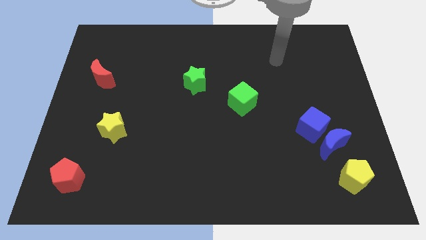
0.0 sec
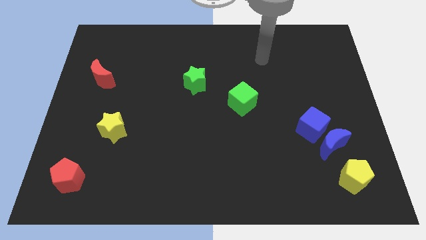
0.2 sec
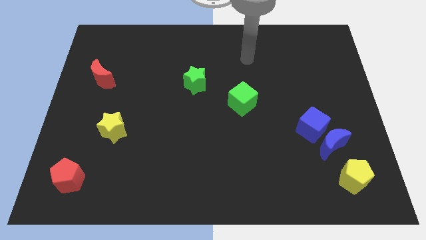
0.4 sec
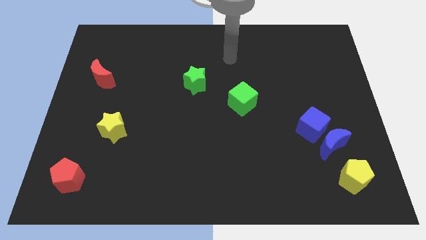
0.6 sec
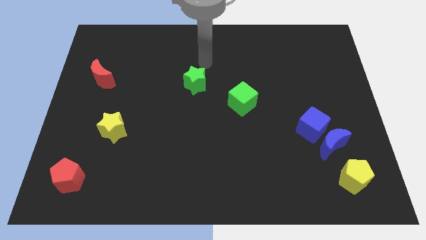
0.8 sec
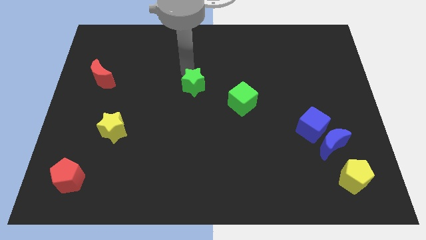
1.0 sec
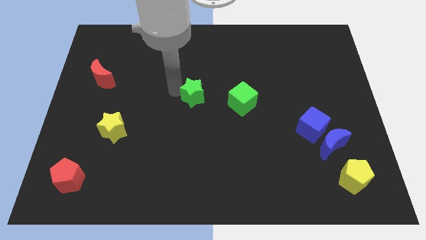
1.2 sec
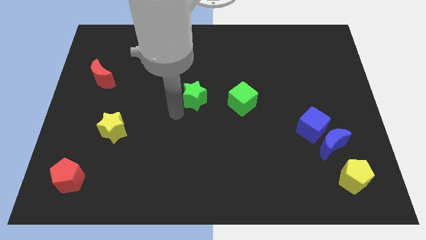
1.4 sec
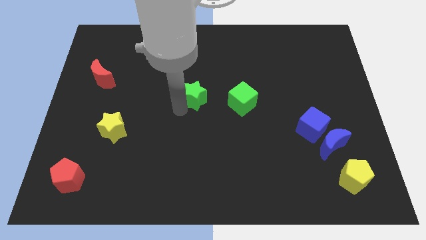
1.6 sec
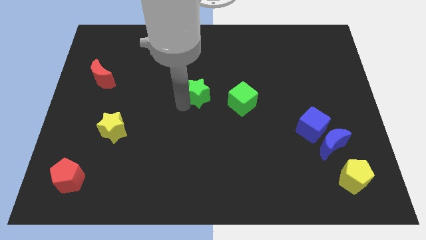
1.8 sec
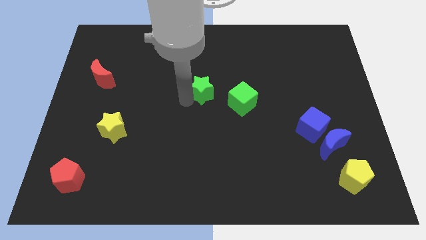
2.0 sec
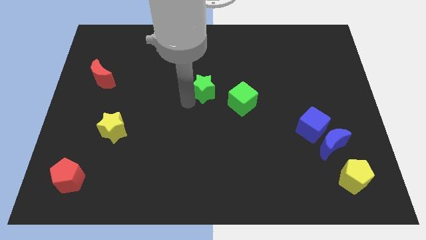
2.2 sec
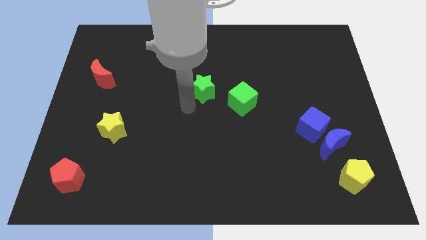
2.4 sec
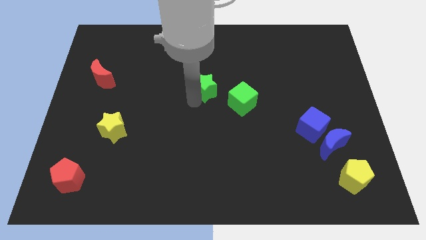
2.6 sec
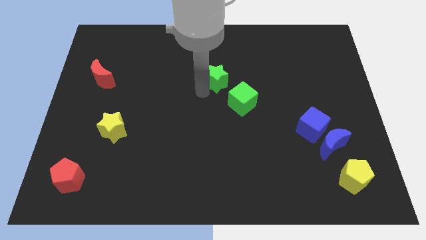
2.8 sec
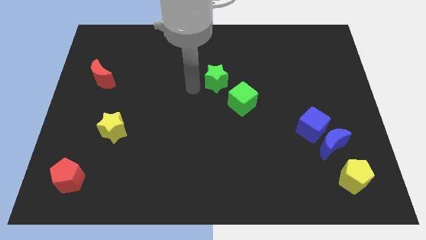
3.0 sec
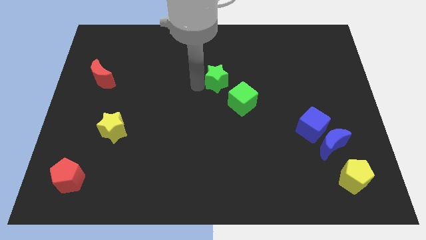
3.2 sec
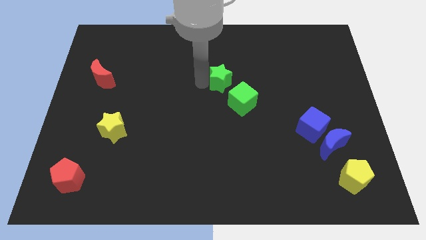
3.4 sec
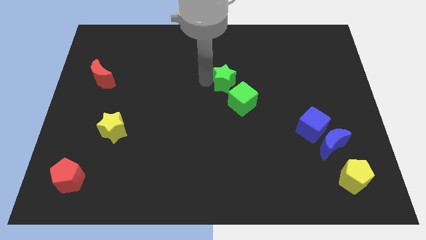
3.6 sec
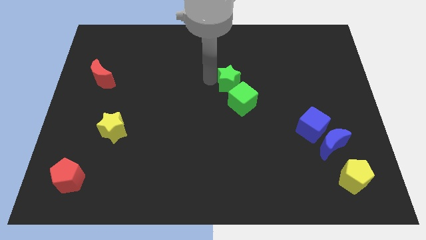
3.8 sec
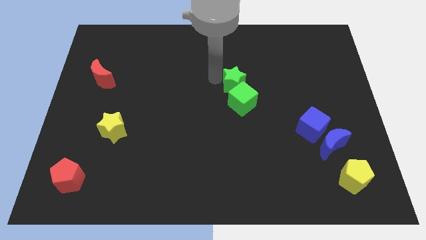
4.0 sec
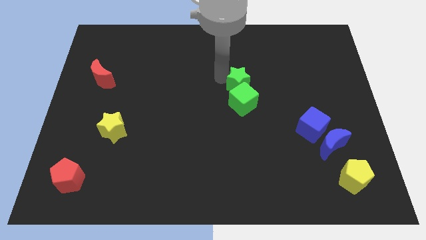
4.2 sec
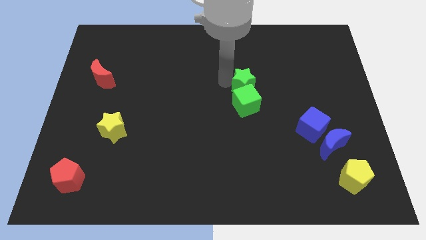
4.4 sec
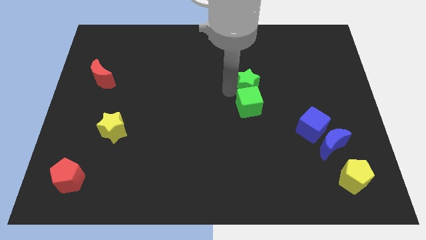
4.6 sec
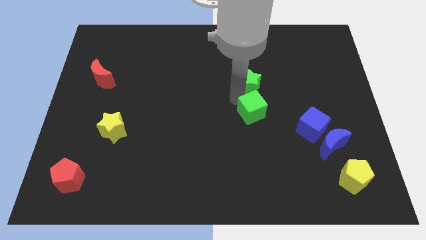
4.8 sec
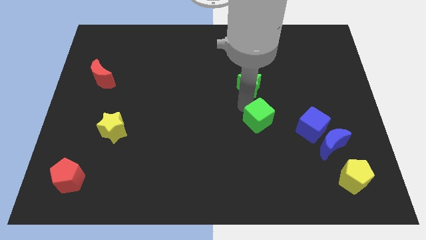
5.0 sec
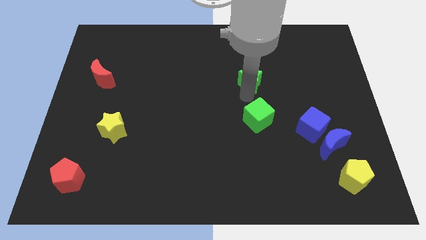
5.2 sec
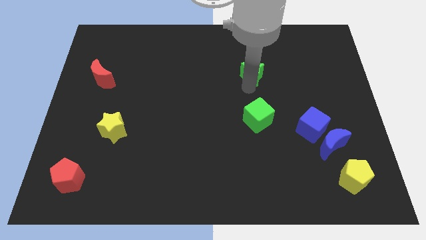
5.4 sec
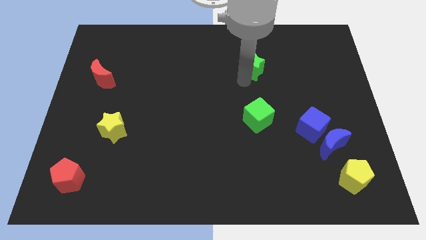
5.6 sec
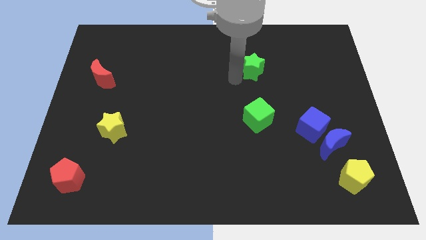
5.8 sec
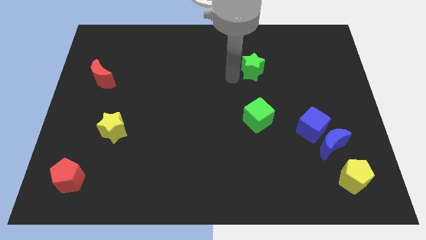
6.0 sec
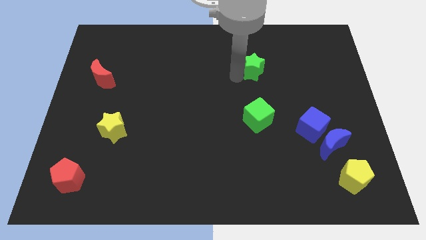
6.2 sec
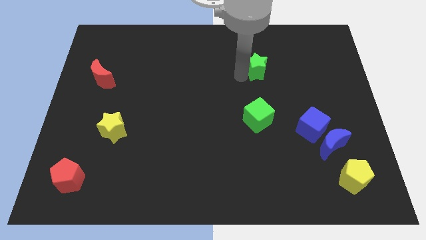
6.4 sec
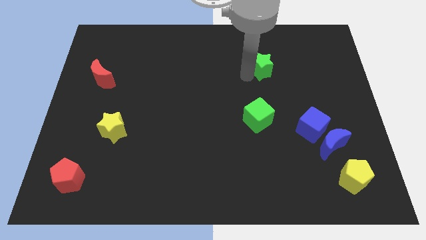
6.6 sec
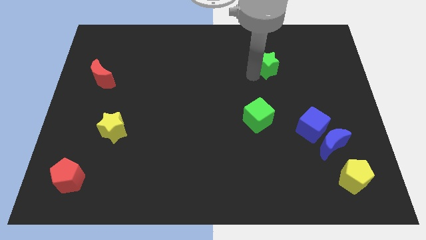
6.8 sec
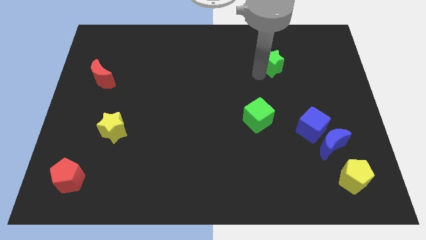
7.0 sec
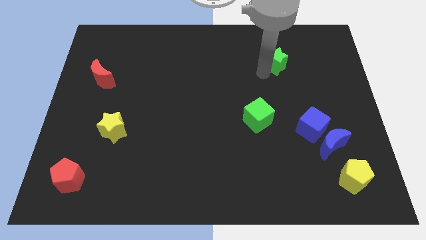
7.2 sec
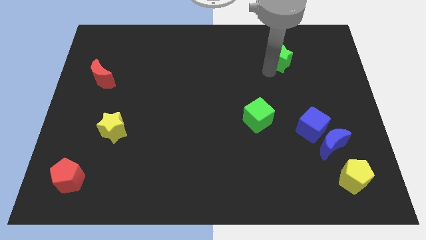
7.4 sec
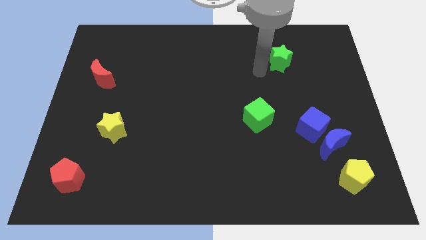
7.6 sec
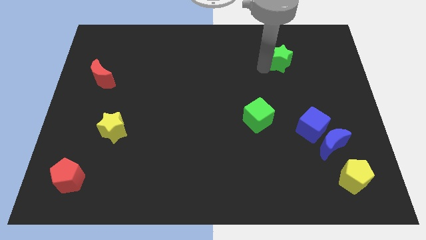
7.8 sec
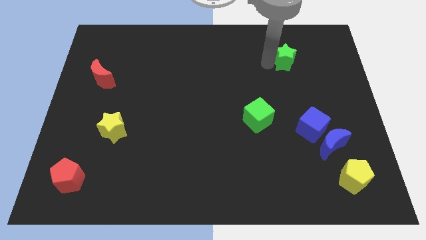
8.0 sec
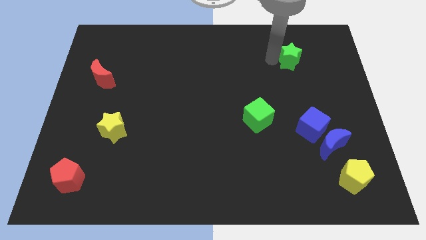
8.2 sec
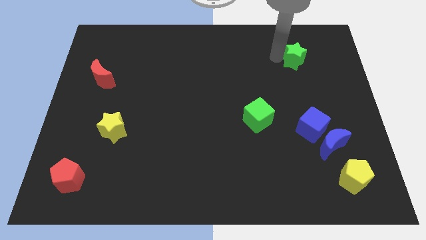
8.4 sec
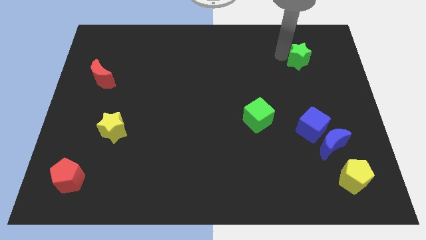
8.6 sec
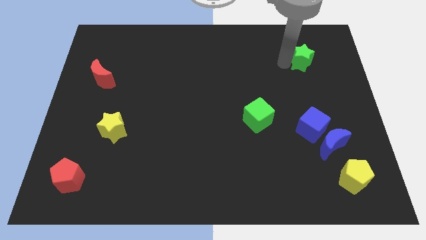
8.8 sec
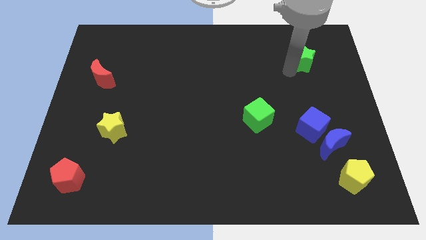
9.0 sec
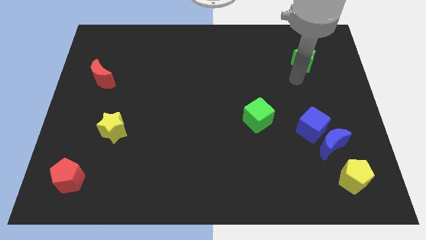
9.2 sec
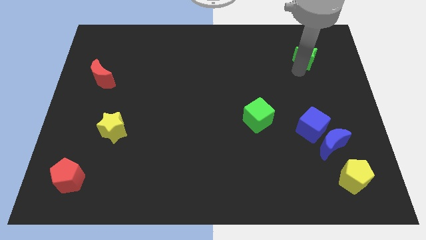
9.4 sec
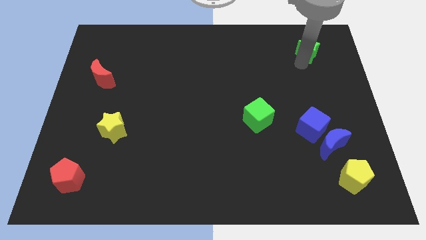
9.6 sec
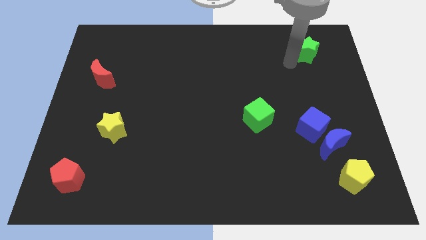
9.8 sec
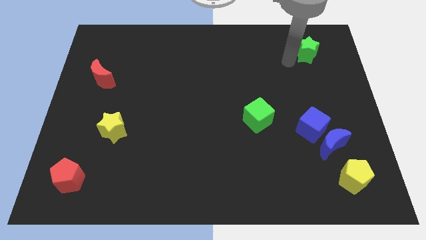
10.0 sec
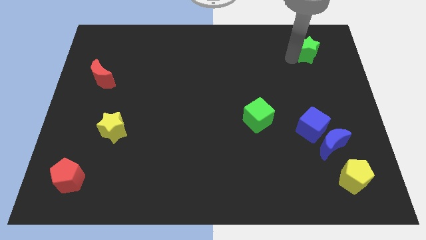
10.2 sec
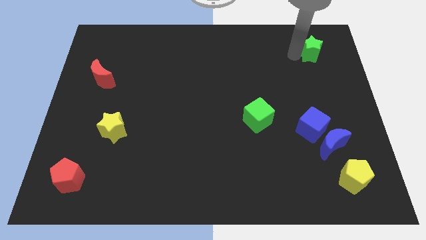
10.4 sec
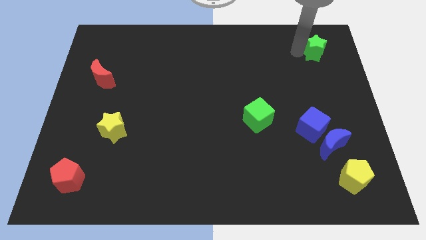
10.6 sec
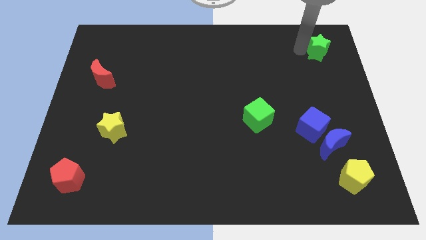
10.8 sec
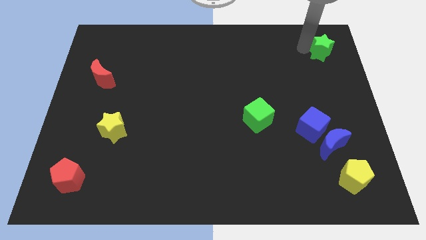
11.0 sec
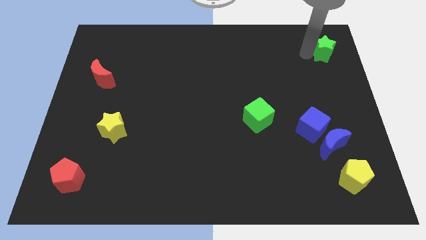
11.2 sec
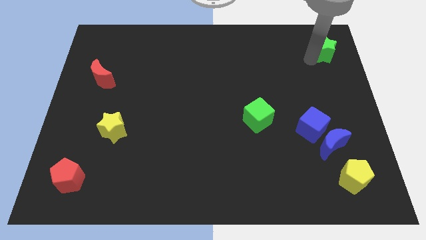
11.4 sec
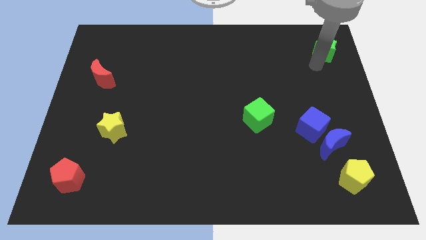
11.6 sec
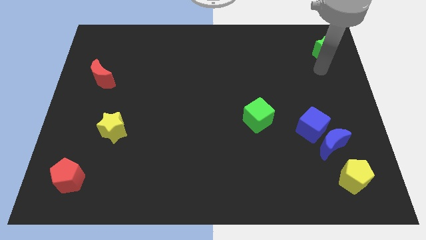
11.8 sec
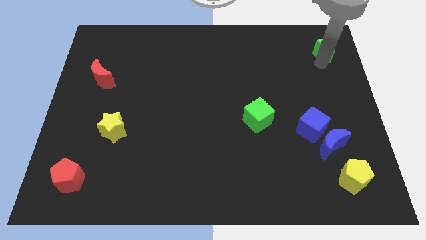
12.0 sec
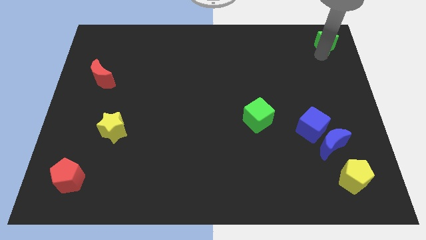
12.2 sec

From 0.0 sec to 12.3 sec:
push the green star to the top right corner
